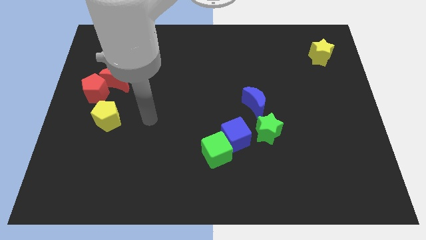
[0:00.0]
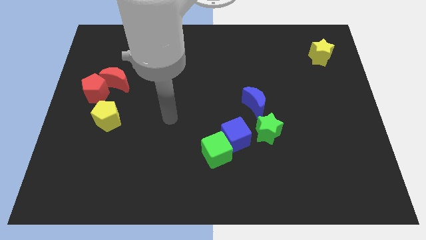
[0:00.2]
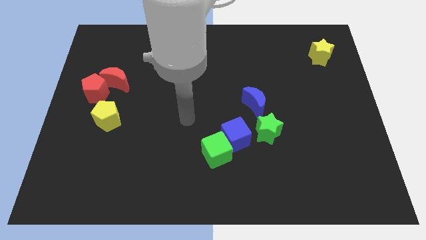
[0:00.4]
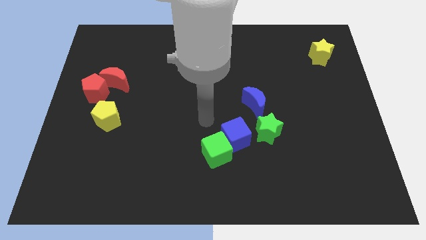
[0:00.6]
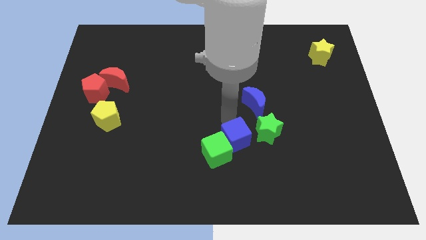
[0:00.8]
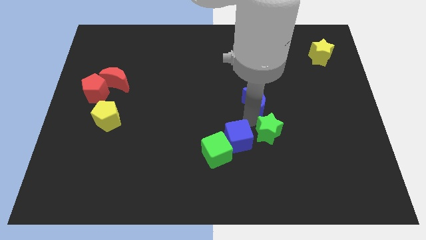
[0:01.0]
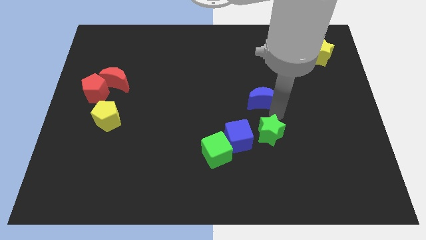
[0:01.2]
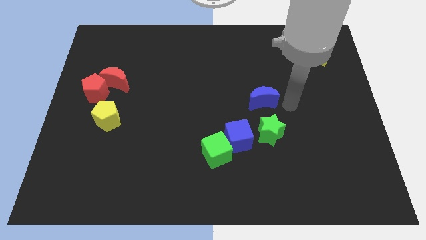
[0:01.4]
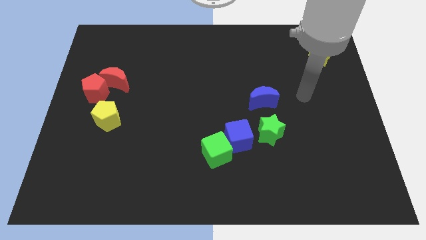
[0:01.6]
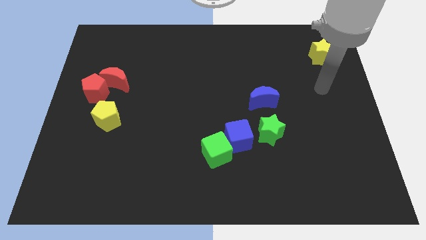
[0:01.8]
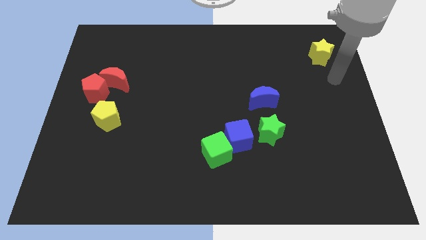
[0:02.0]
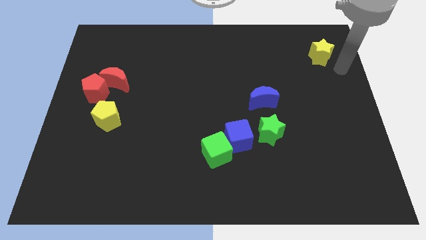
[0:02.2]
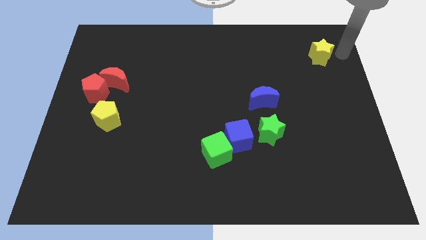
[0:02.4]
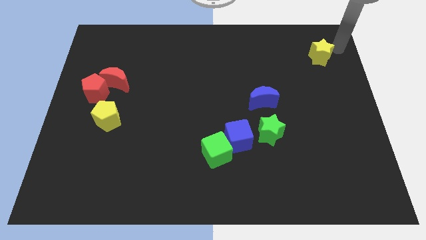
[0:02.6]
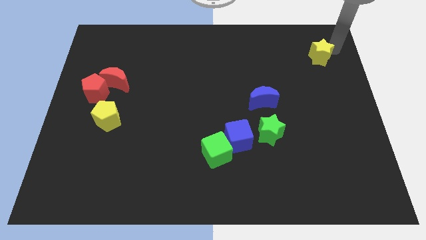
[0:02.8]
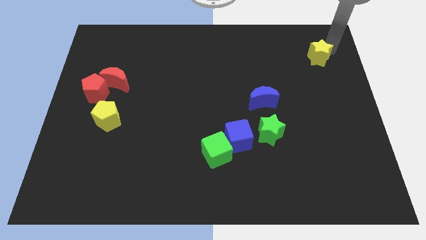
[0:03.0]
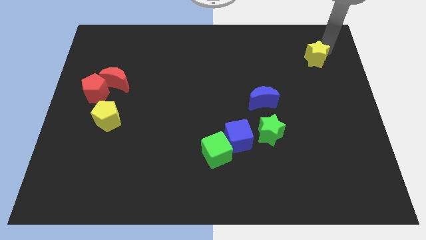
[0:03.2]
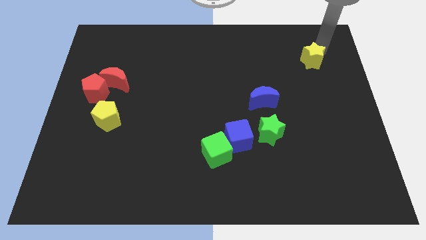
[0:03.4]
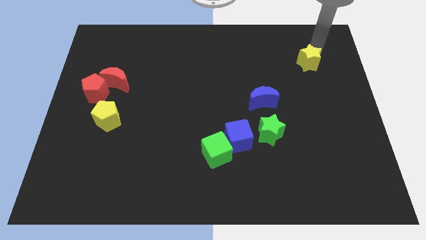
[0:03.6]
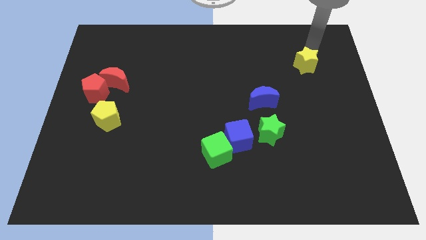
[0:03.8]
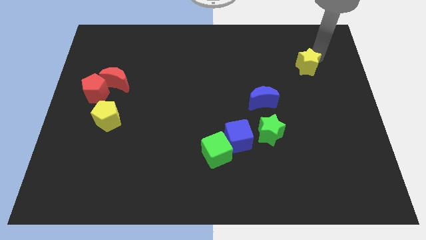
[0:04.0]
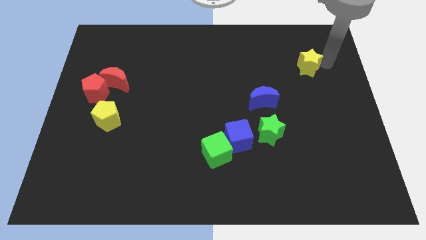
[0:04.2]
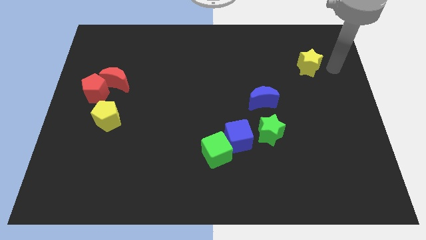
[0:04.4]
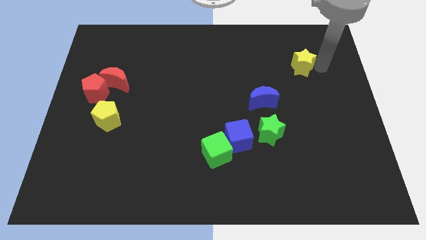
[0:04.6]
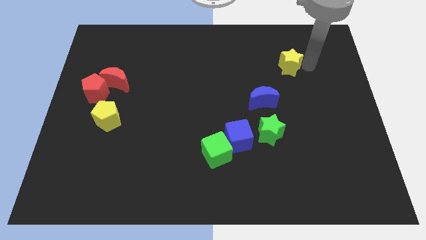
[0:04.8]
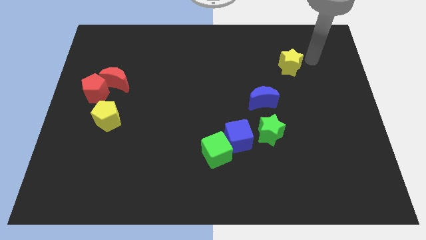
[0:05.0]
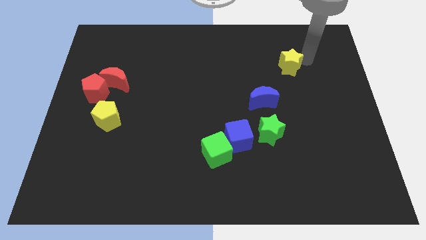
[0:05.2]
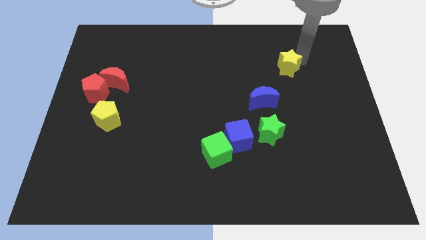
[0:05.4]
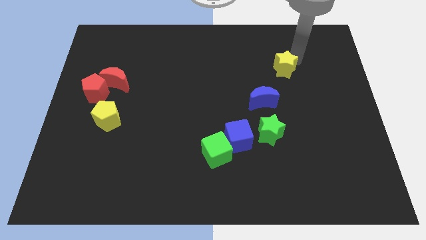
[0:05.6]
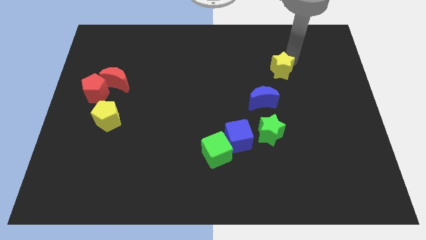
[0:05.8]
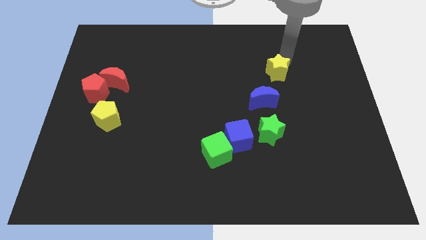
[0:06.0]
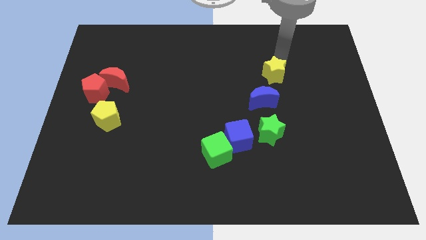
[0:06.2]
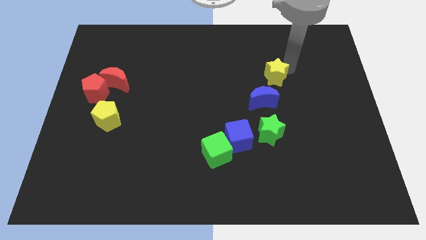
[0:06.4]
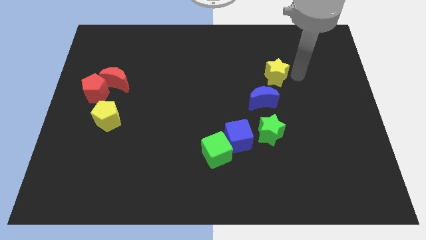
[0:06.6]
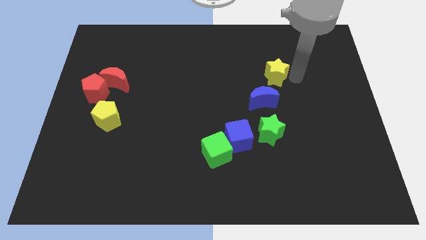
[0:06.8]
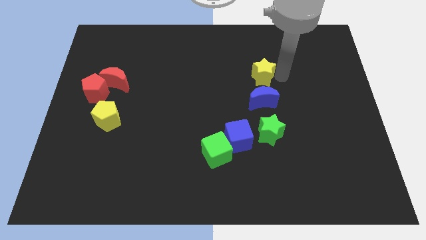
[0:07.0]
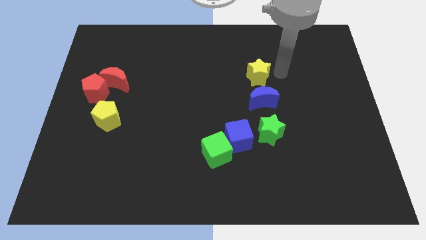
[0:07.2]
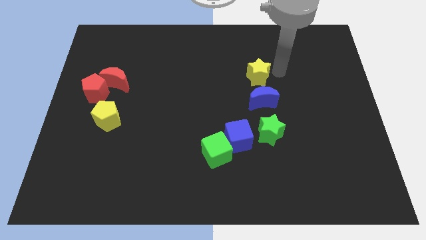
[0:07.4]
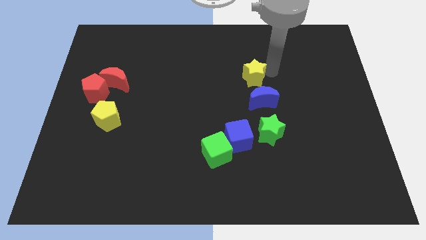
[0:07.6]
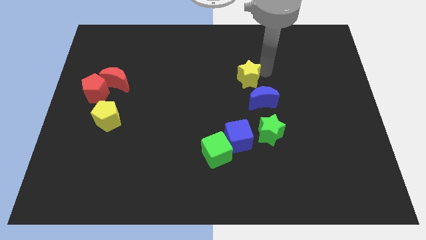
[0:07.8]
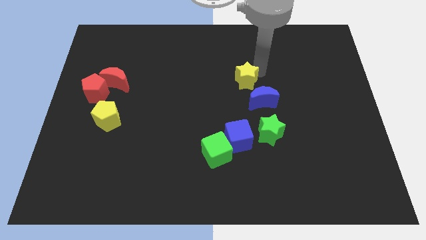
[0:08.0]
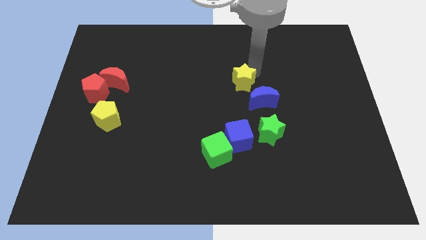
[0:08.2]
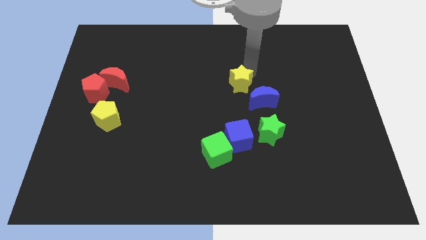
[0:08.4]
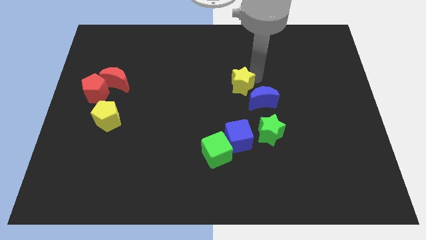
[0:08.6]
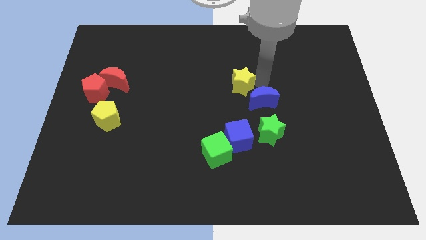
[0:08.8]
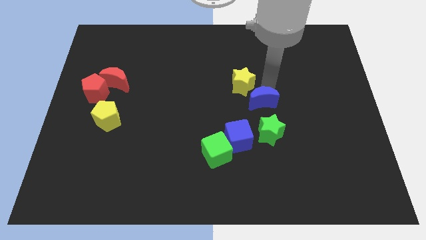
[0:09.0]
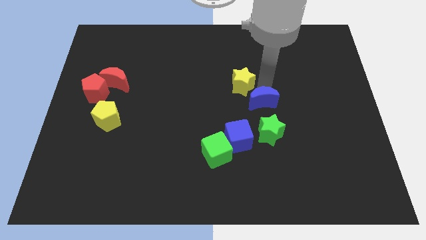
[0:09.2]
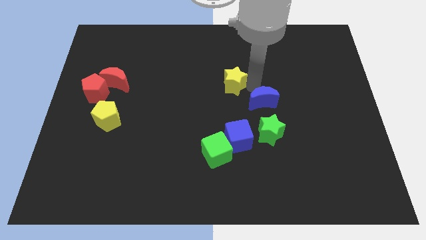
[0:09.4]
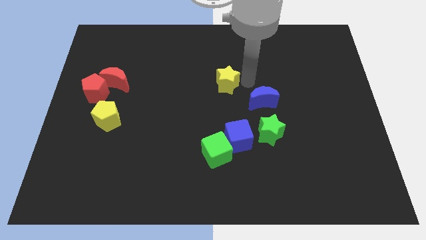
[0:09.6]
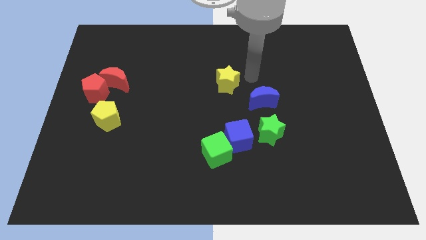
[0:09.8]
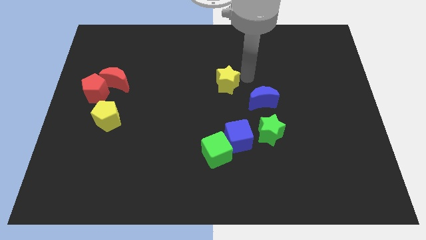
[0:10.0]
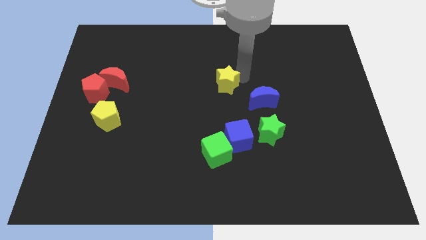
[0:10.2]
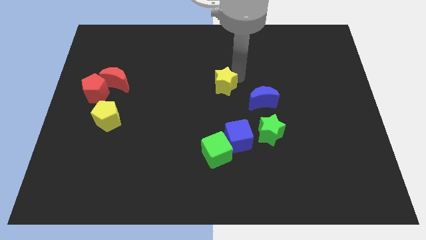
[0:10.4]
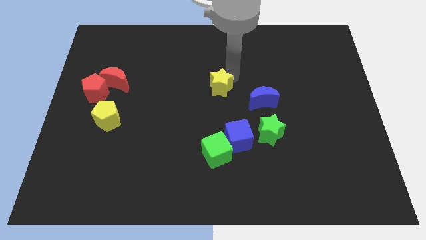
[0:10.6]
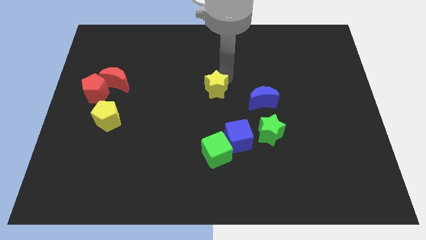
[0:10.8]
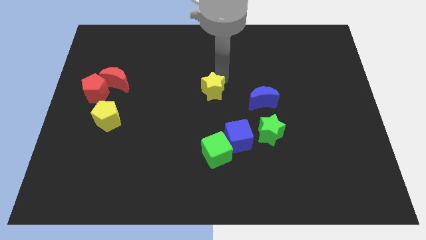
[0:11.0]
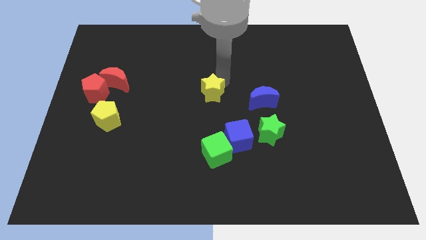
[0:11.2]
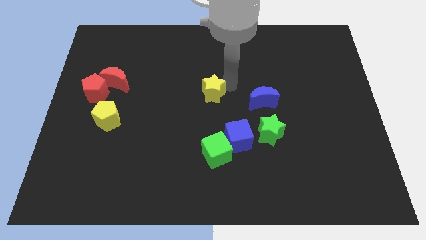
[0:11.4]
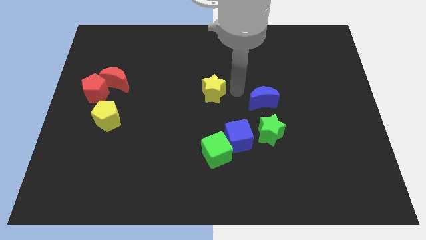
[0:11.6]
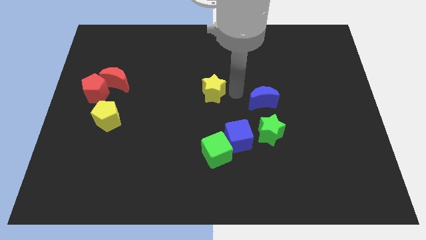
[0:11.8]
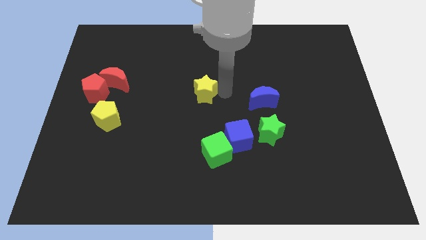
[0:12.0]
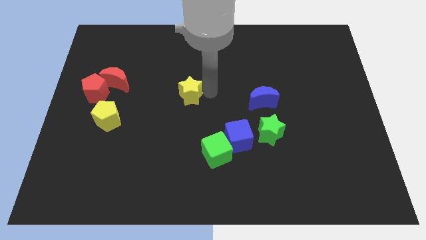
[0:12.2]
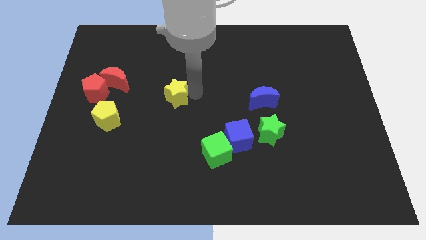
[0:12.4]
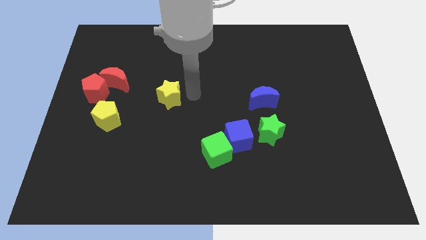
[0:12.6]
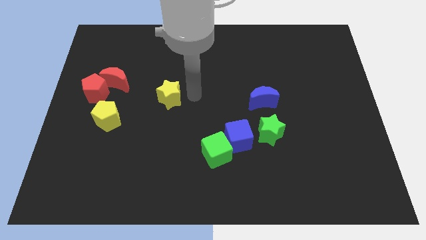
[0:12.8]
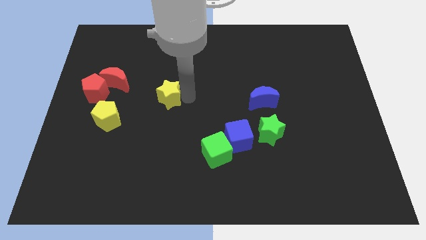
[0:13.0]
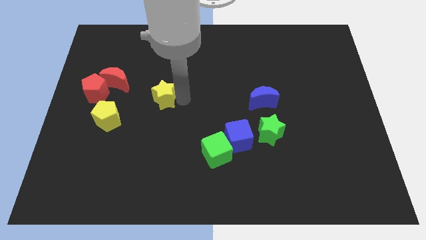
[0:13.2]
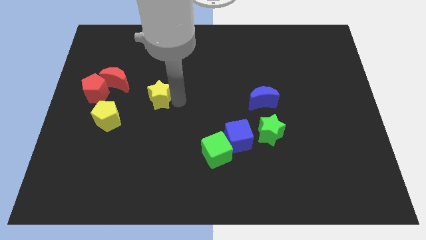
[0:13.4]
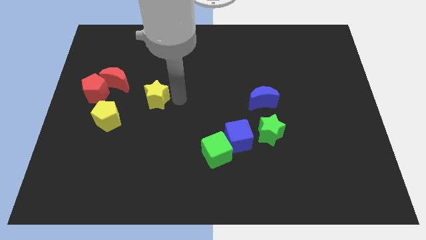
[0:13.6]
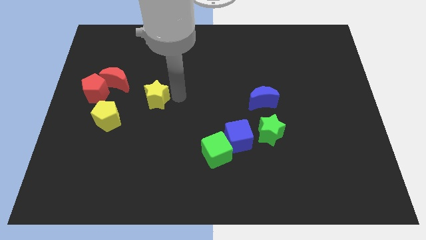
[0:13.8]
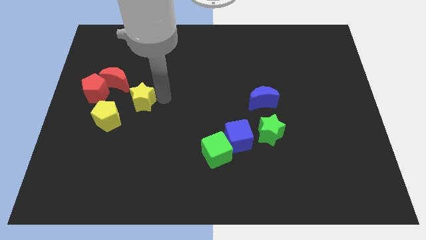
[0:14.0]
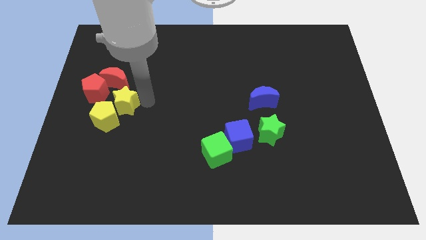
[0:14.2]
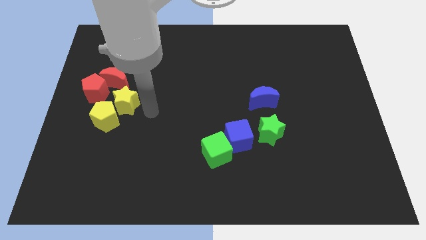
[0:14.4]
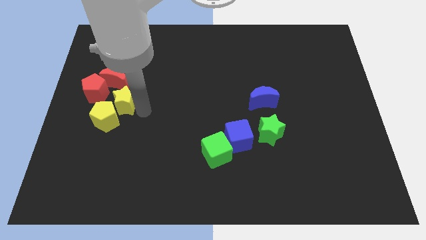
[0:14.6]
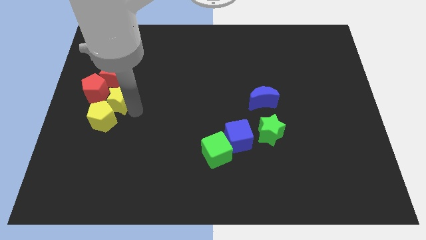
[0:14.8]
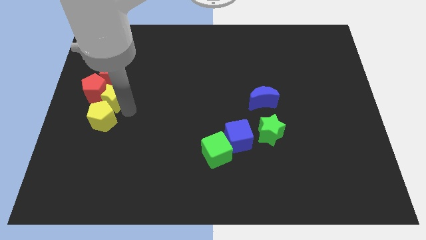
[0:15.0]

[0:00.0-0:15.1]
slide the yellow star to the red pentagon
